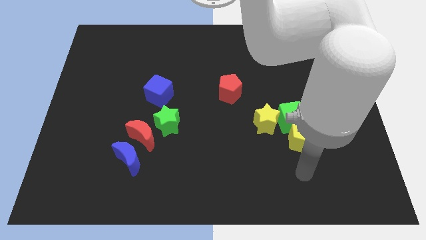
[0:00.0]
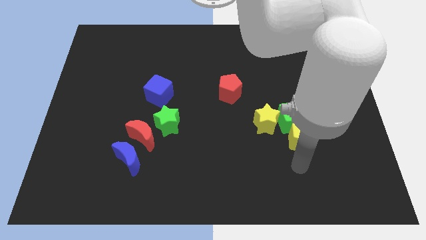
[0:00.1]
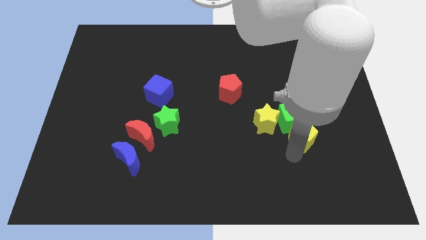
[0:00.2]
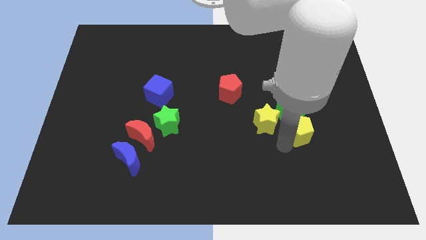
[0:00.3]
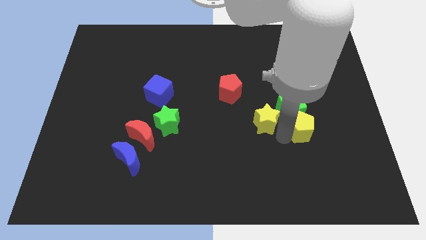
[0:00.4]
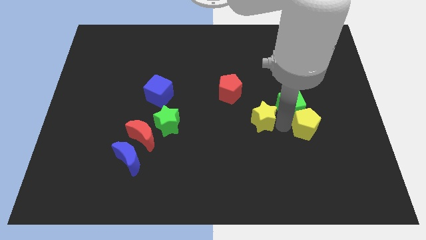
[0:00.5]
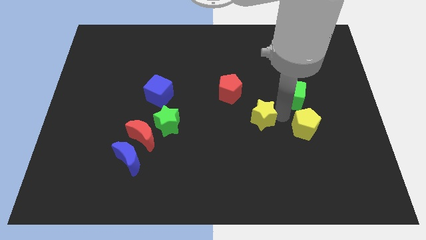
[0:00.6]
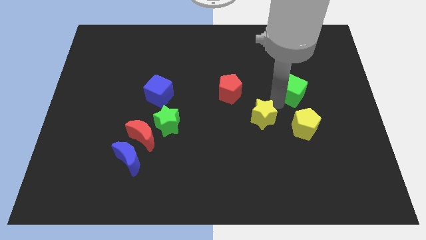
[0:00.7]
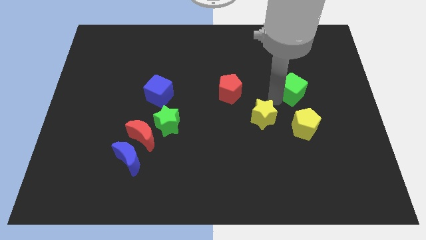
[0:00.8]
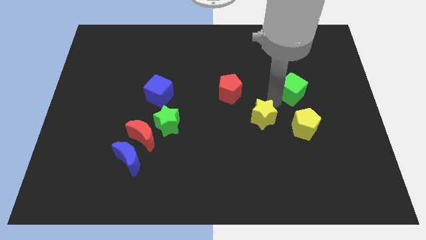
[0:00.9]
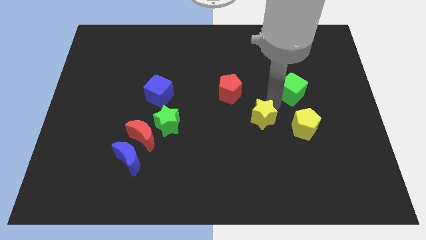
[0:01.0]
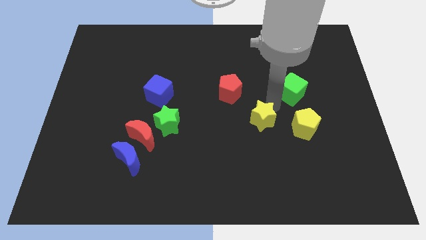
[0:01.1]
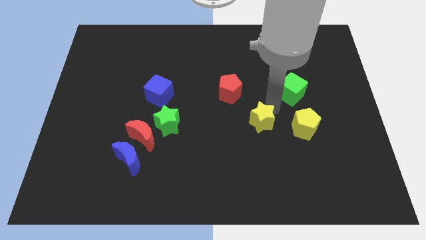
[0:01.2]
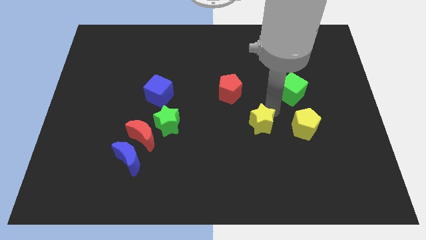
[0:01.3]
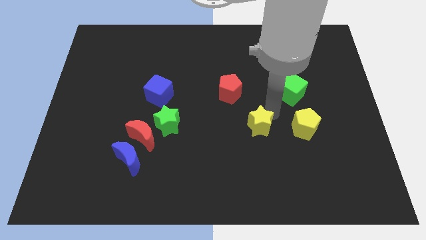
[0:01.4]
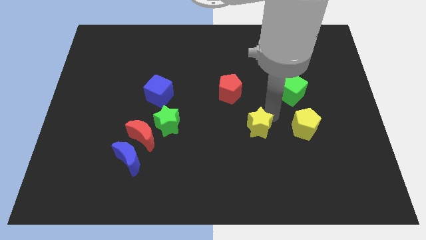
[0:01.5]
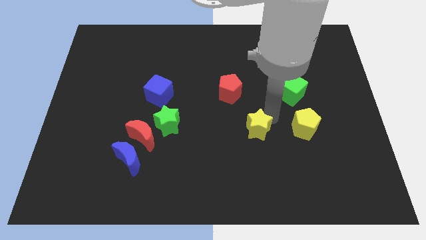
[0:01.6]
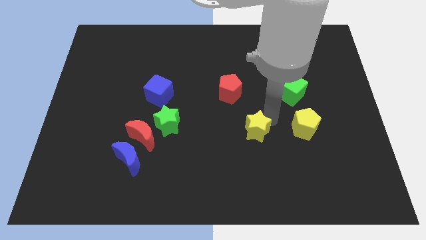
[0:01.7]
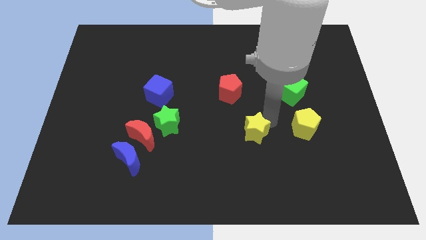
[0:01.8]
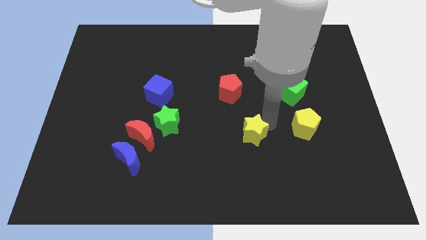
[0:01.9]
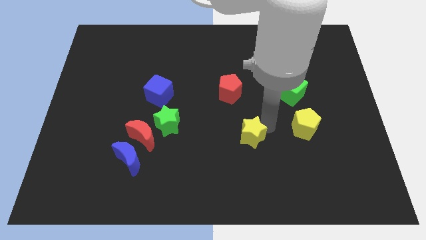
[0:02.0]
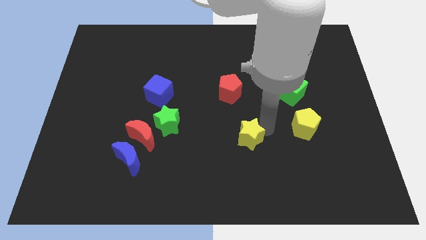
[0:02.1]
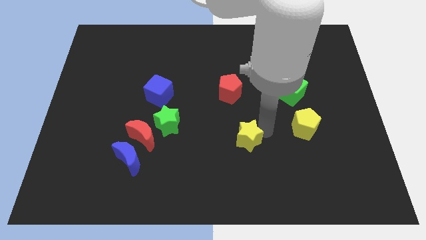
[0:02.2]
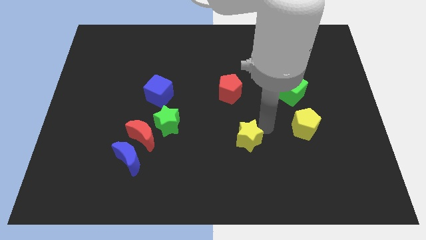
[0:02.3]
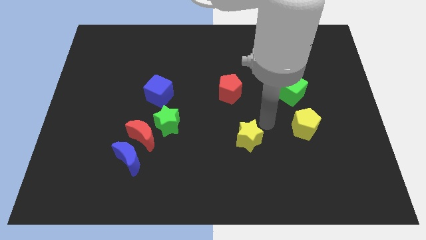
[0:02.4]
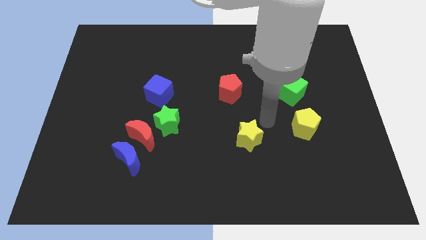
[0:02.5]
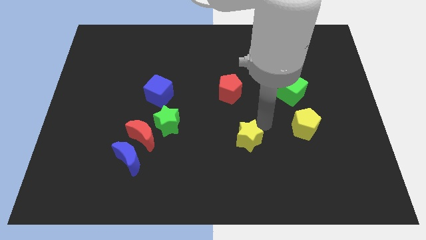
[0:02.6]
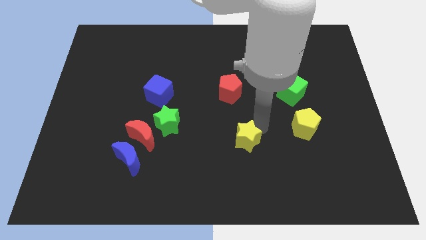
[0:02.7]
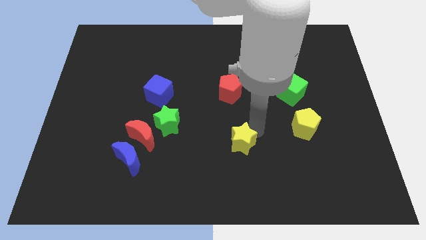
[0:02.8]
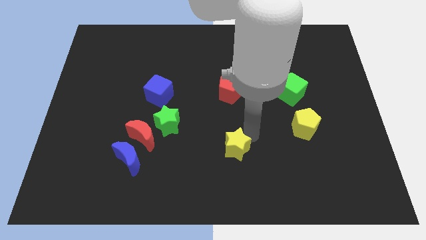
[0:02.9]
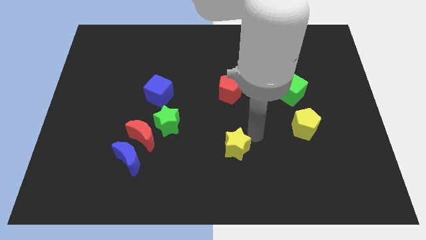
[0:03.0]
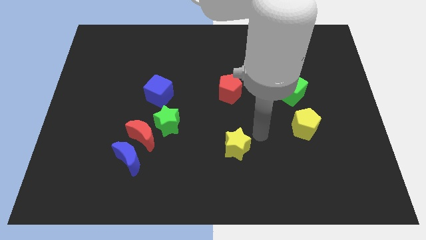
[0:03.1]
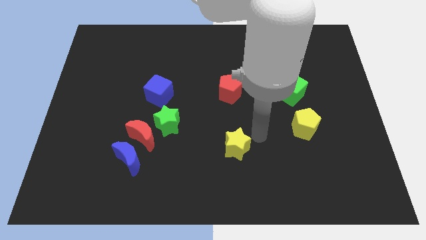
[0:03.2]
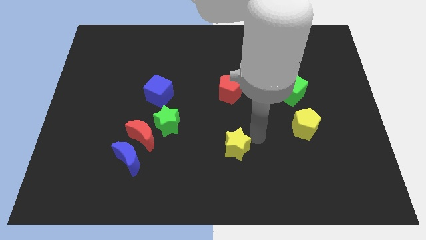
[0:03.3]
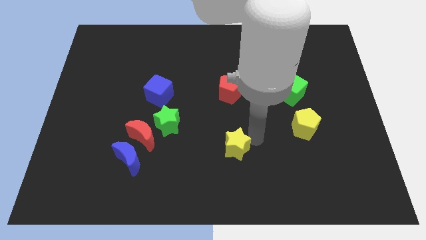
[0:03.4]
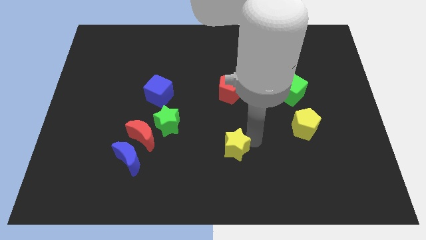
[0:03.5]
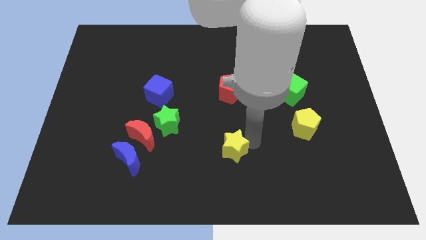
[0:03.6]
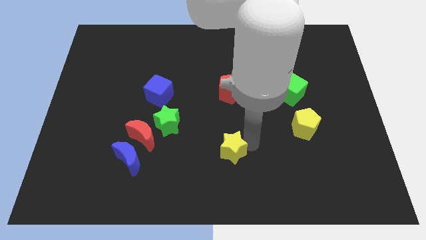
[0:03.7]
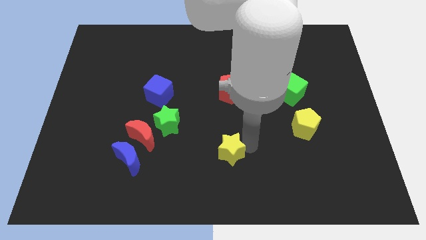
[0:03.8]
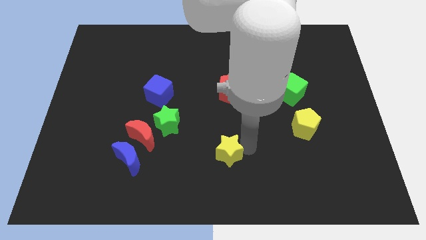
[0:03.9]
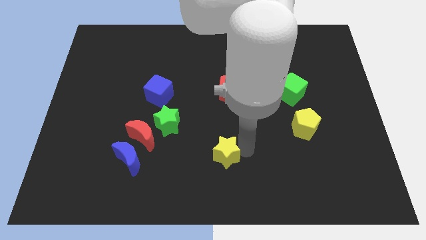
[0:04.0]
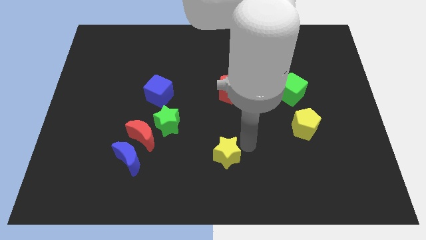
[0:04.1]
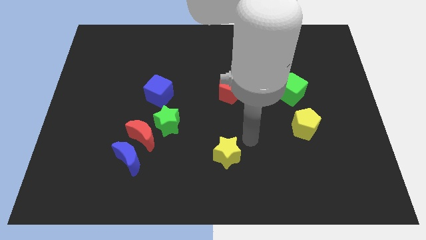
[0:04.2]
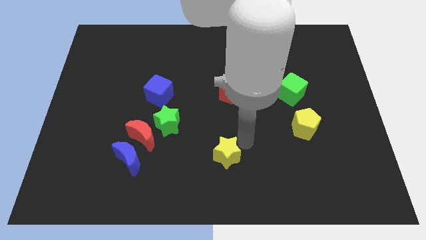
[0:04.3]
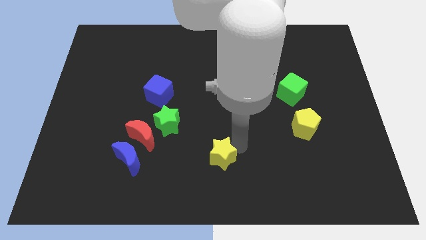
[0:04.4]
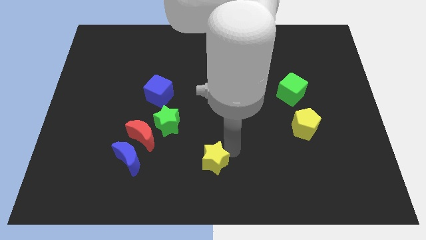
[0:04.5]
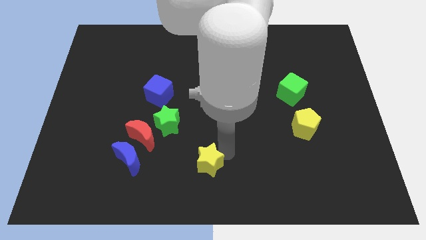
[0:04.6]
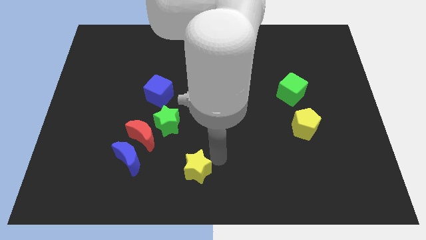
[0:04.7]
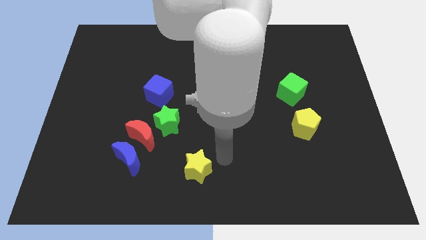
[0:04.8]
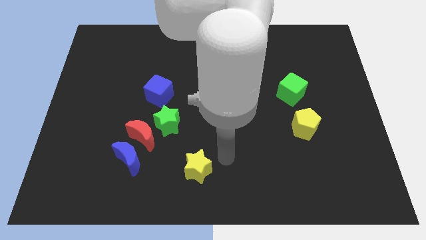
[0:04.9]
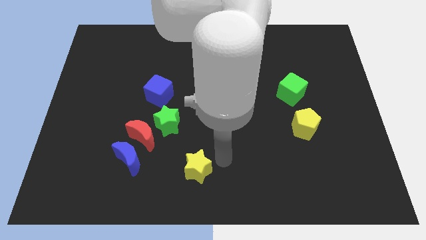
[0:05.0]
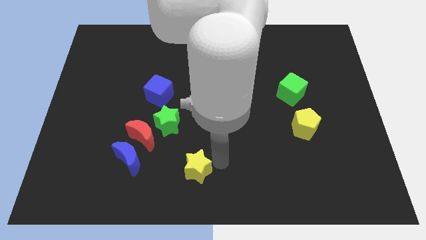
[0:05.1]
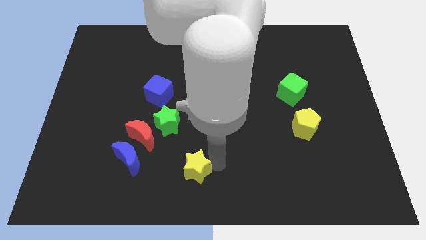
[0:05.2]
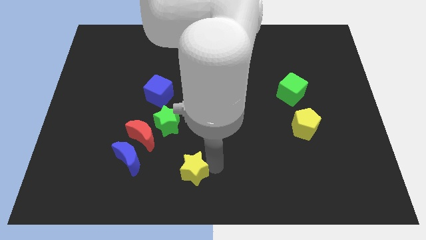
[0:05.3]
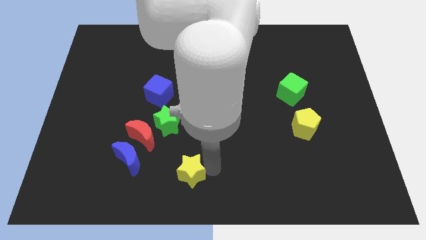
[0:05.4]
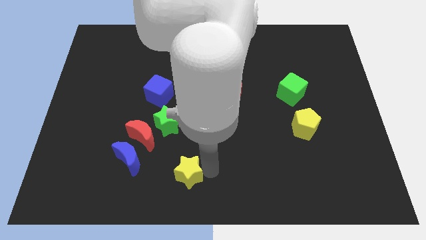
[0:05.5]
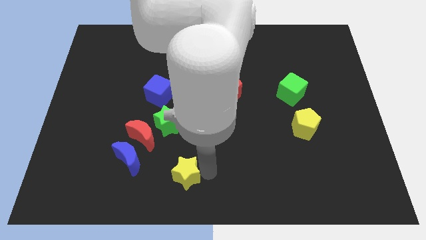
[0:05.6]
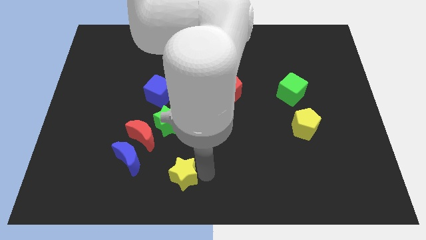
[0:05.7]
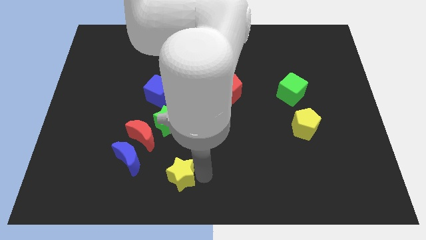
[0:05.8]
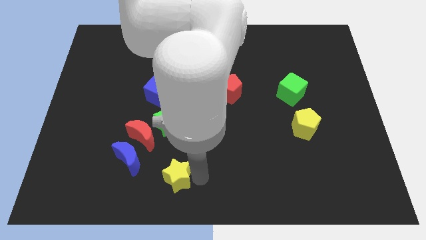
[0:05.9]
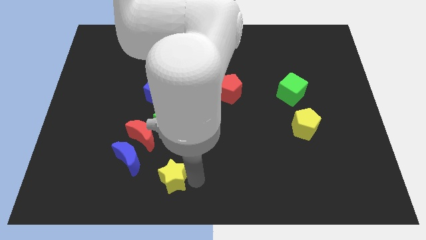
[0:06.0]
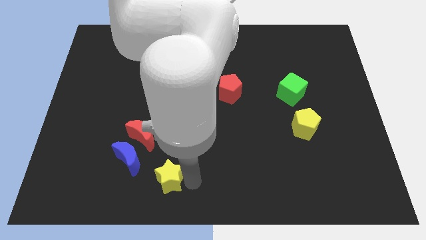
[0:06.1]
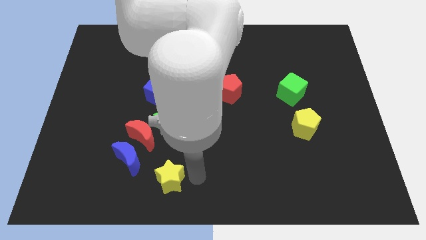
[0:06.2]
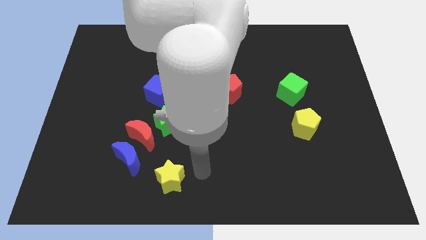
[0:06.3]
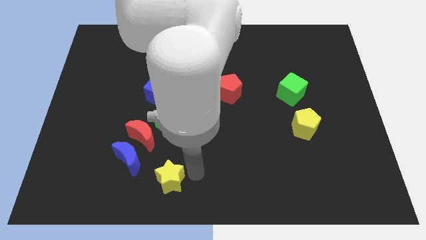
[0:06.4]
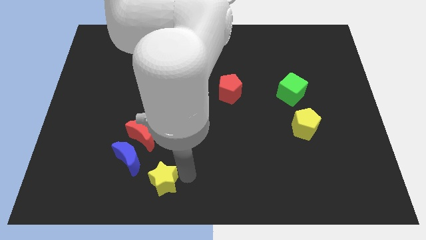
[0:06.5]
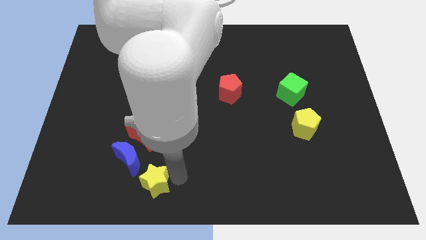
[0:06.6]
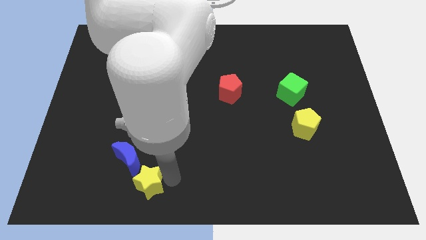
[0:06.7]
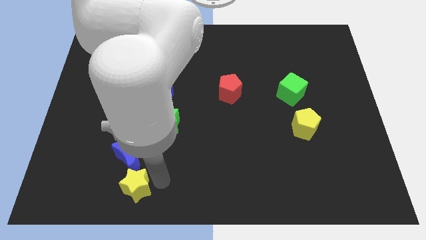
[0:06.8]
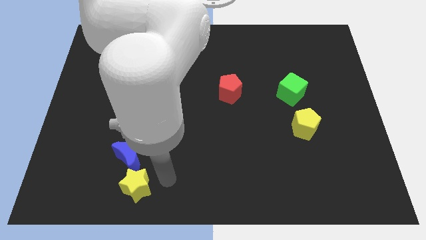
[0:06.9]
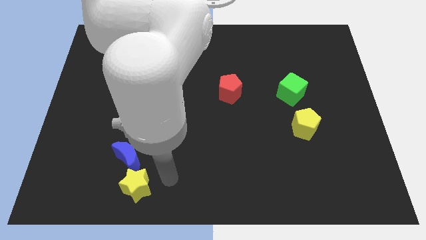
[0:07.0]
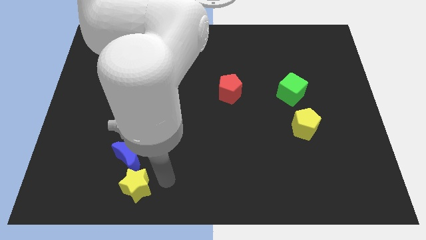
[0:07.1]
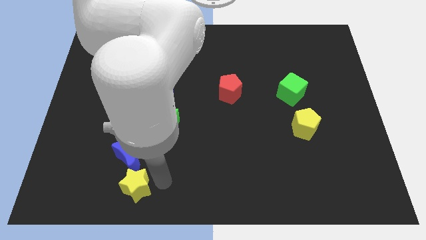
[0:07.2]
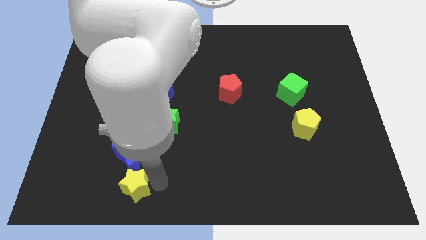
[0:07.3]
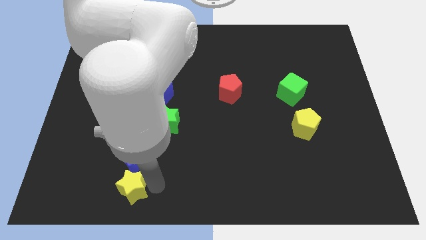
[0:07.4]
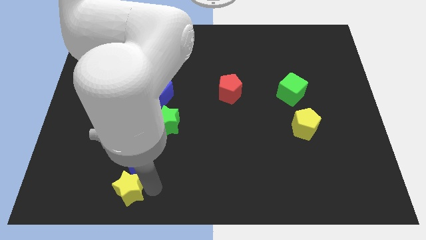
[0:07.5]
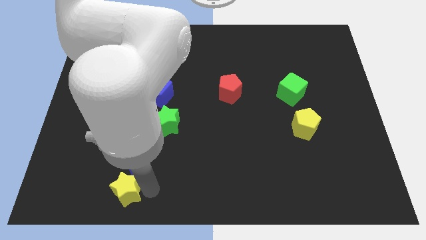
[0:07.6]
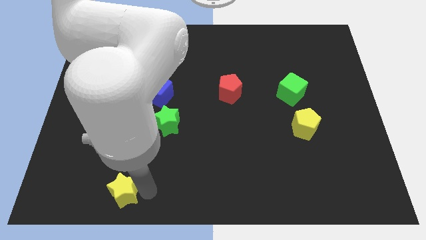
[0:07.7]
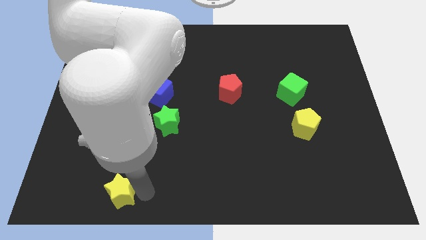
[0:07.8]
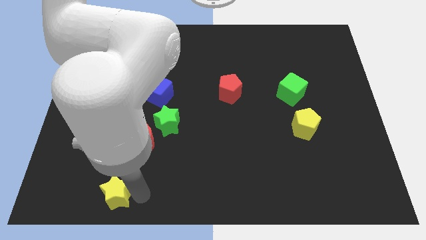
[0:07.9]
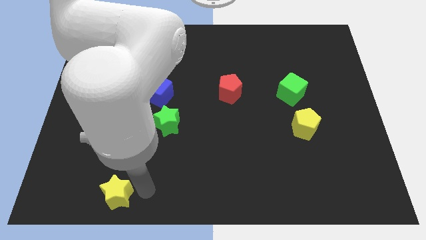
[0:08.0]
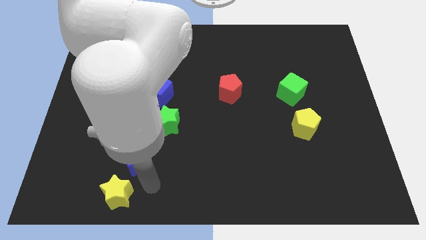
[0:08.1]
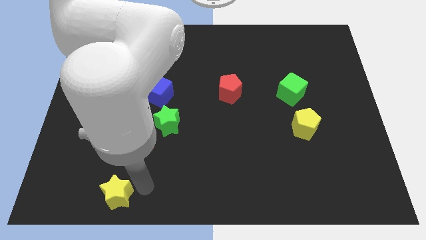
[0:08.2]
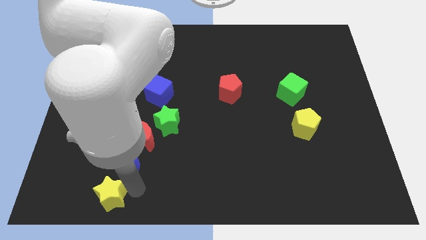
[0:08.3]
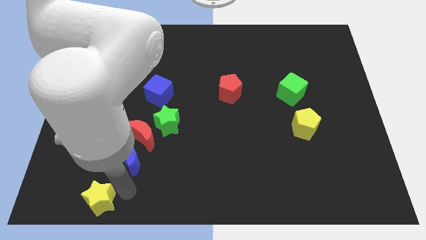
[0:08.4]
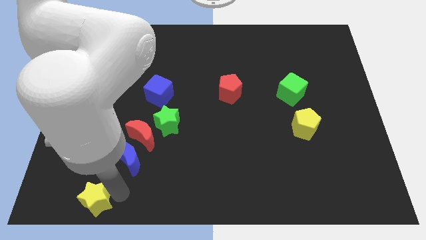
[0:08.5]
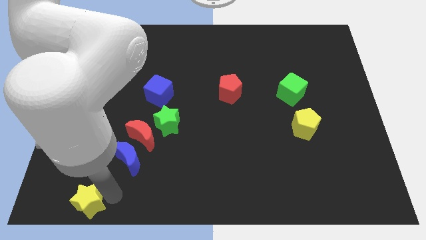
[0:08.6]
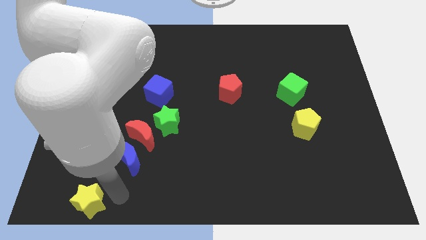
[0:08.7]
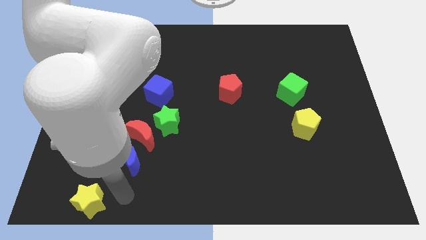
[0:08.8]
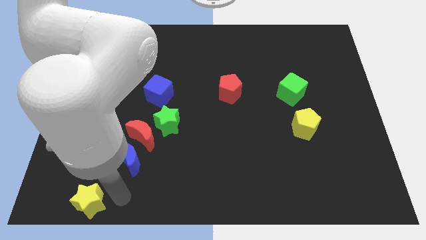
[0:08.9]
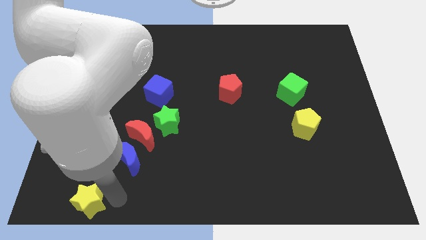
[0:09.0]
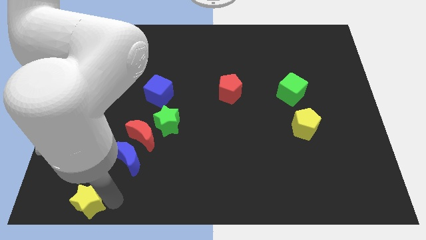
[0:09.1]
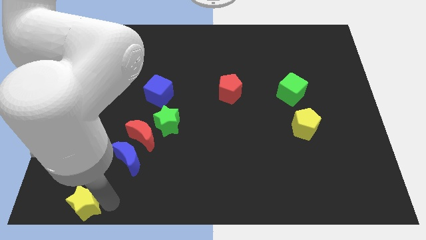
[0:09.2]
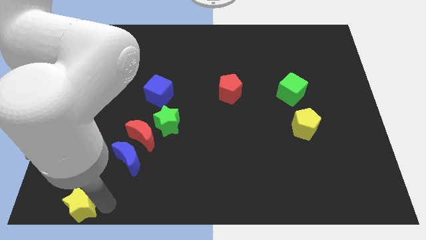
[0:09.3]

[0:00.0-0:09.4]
slide the yellow star to the bottom left
